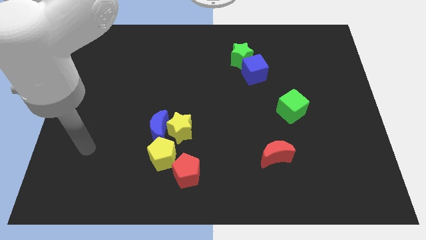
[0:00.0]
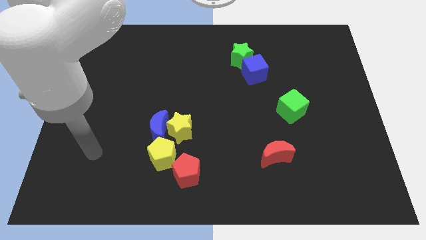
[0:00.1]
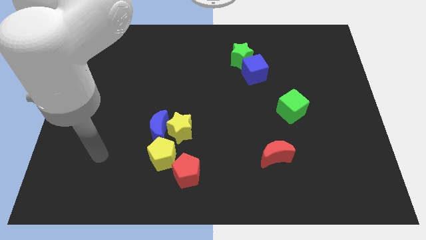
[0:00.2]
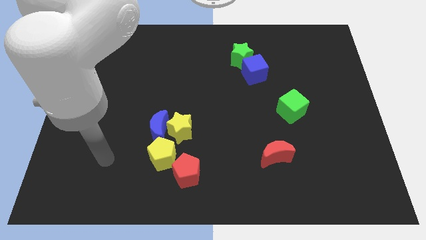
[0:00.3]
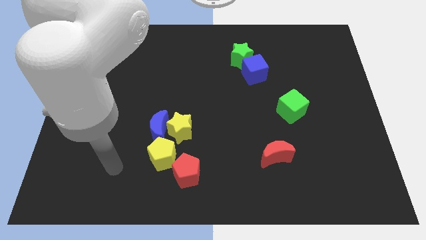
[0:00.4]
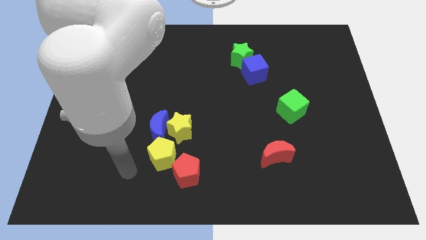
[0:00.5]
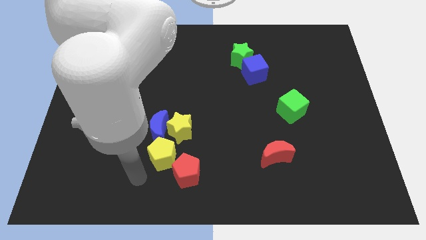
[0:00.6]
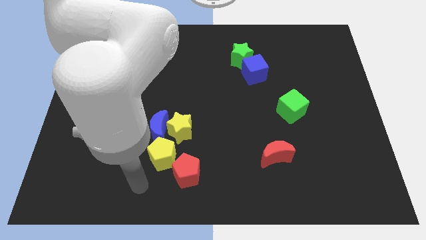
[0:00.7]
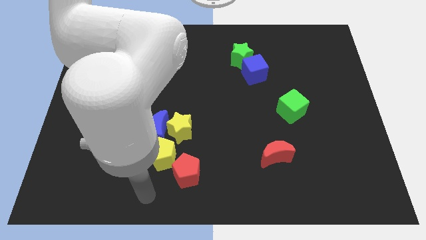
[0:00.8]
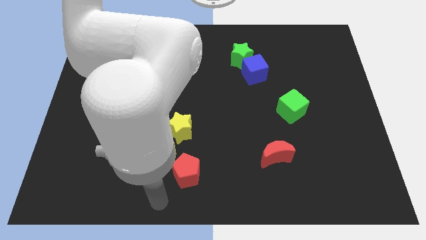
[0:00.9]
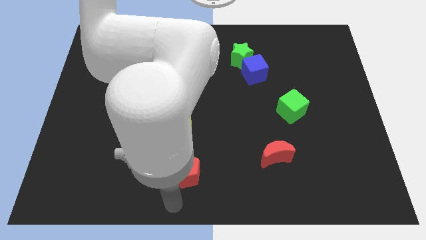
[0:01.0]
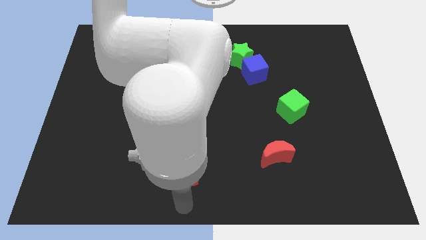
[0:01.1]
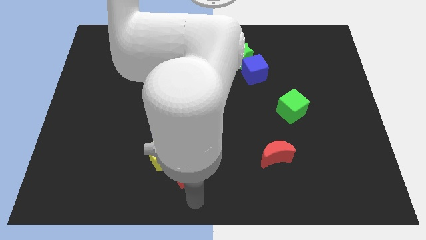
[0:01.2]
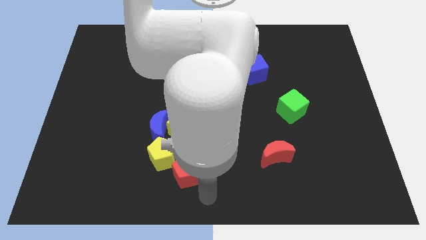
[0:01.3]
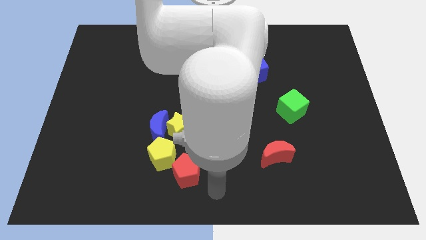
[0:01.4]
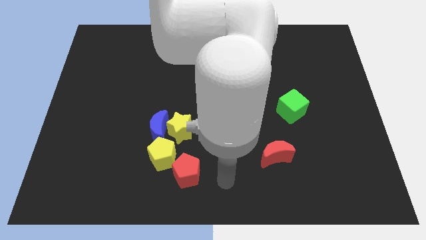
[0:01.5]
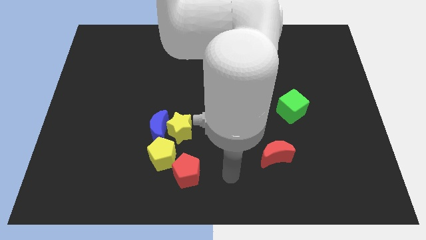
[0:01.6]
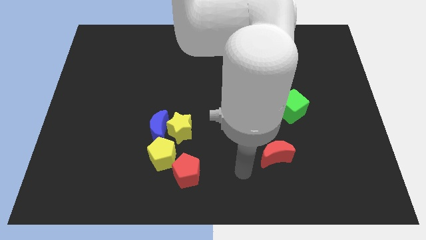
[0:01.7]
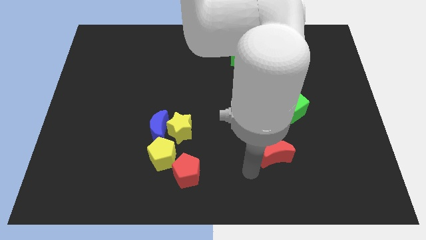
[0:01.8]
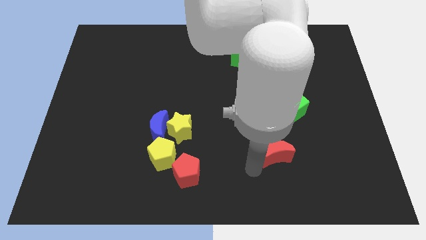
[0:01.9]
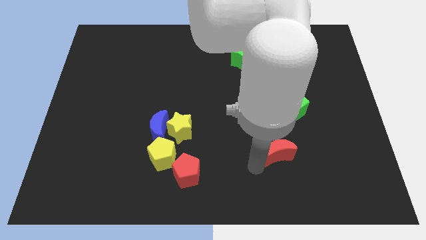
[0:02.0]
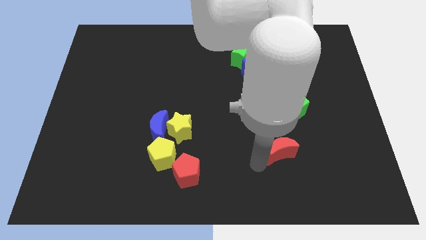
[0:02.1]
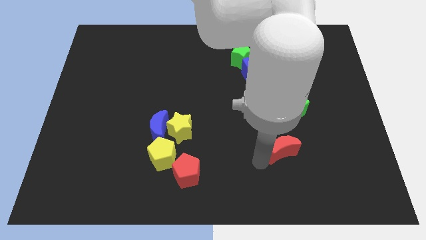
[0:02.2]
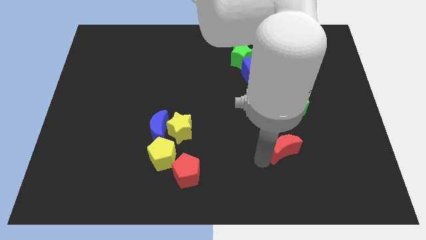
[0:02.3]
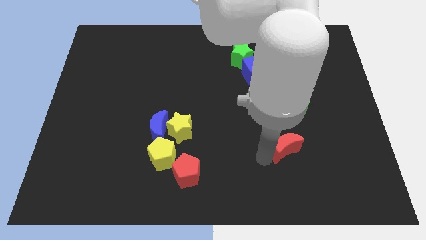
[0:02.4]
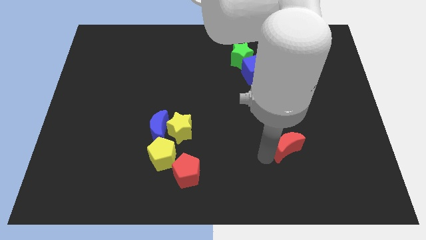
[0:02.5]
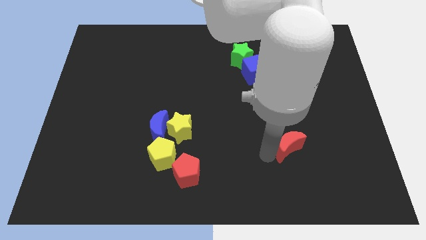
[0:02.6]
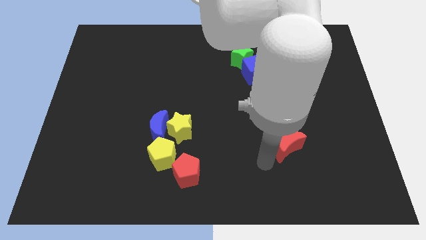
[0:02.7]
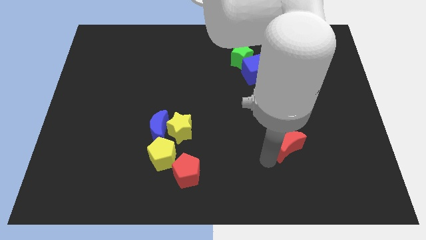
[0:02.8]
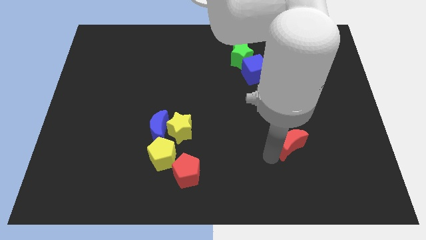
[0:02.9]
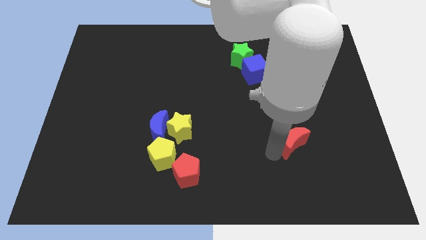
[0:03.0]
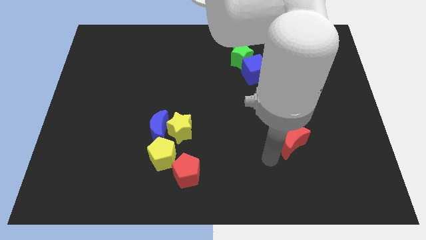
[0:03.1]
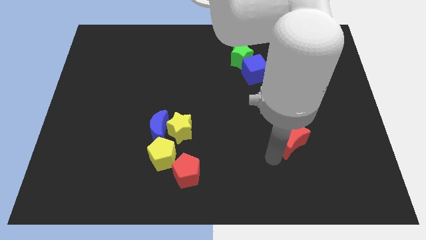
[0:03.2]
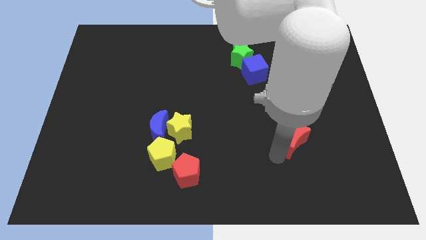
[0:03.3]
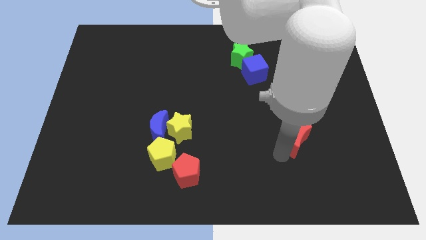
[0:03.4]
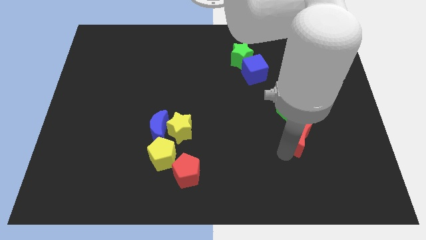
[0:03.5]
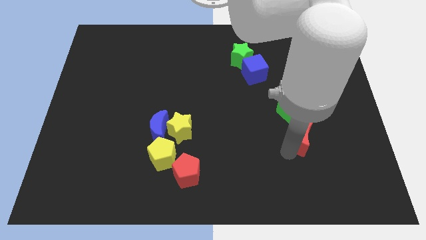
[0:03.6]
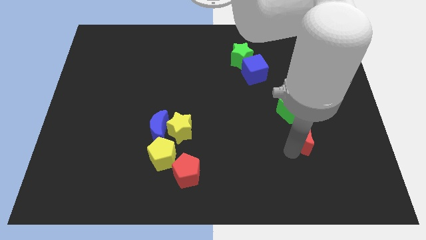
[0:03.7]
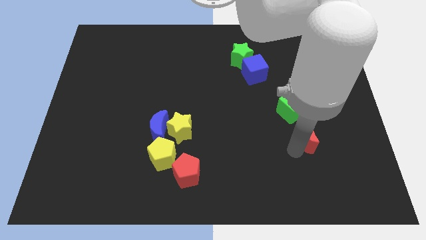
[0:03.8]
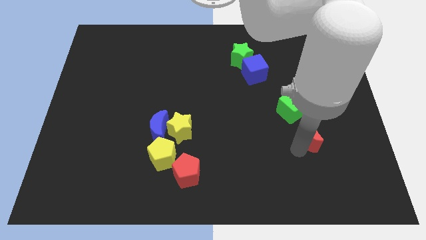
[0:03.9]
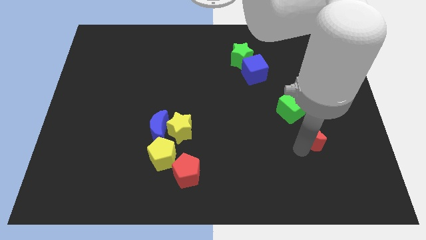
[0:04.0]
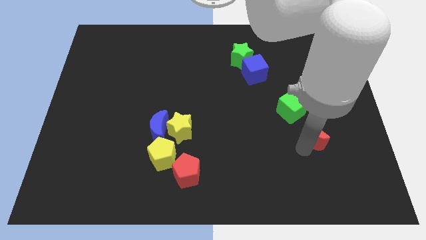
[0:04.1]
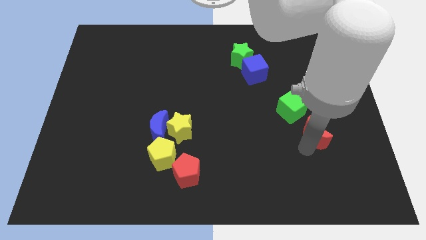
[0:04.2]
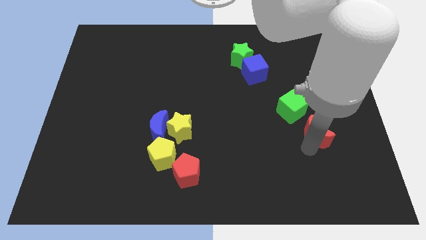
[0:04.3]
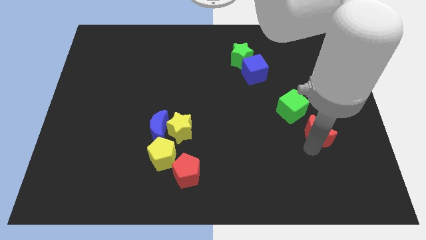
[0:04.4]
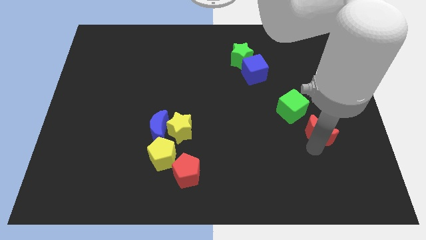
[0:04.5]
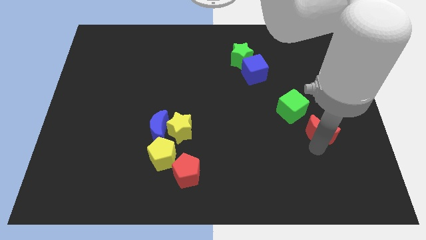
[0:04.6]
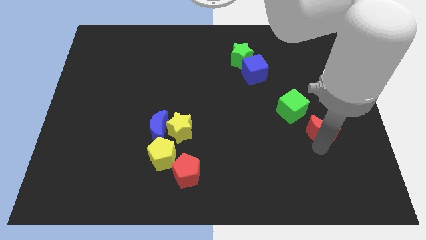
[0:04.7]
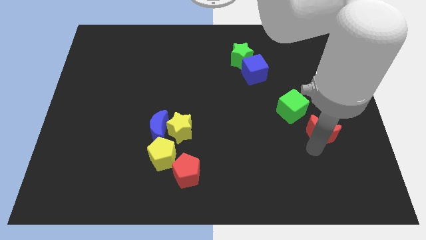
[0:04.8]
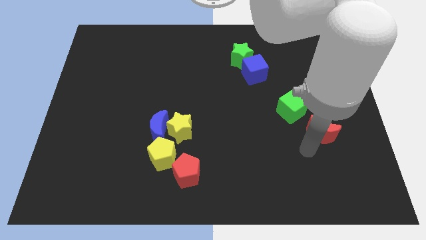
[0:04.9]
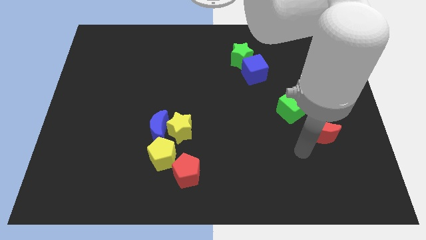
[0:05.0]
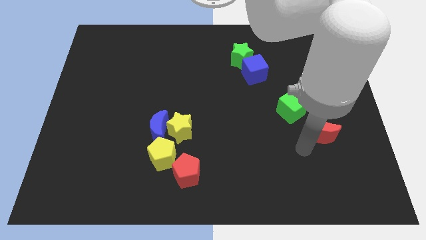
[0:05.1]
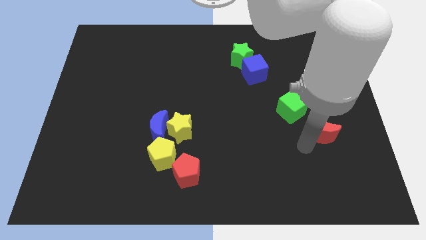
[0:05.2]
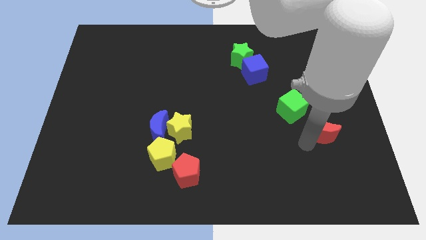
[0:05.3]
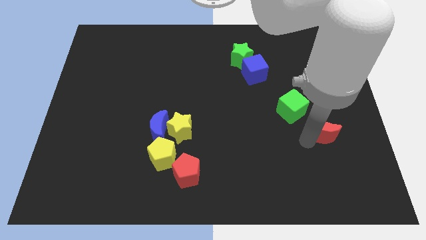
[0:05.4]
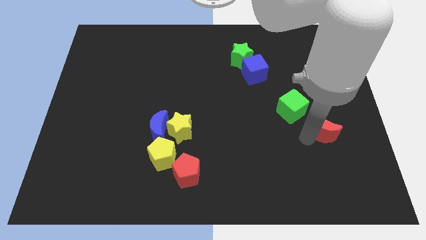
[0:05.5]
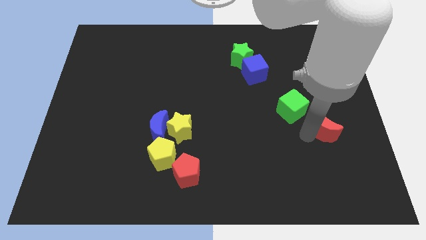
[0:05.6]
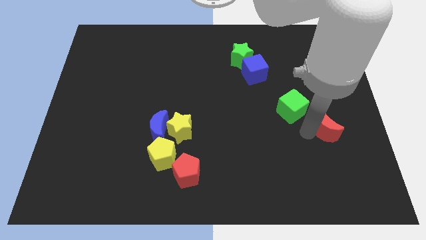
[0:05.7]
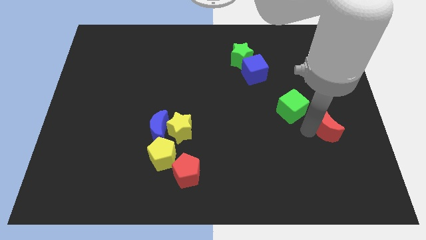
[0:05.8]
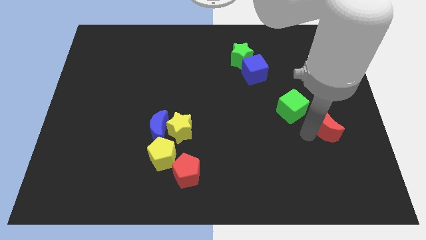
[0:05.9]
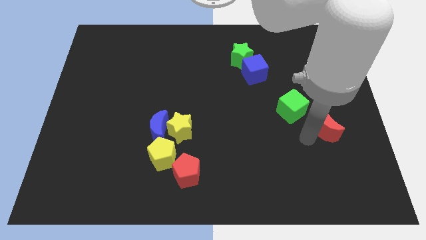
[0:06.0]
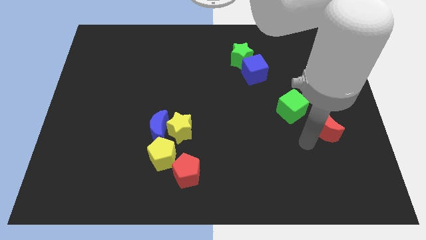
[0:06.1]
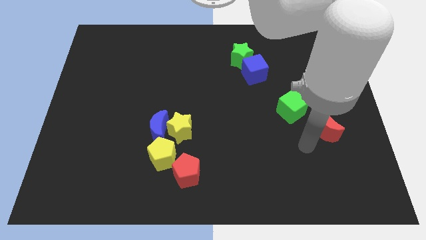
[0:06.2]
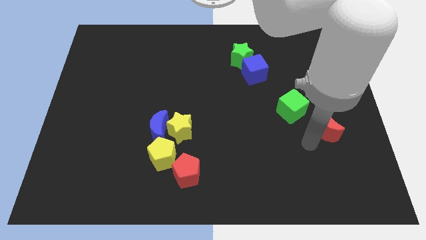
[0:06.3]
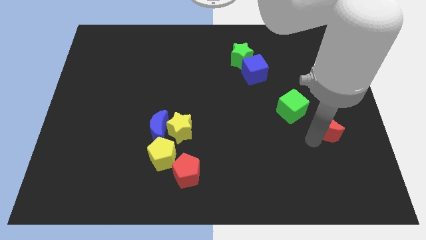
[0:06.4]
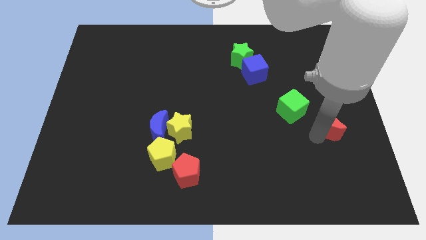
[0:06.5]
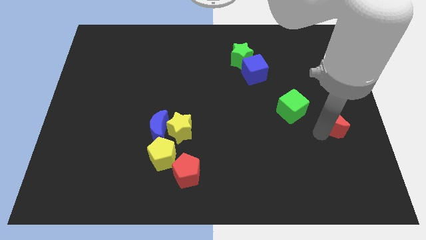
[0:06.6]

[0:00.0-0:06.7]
push the red moon to the right side
